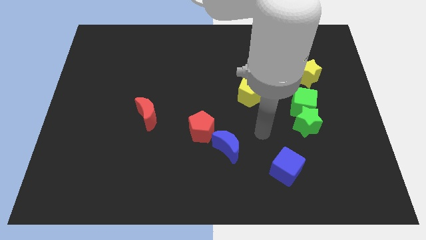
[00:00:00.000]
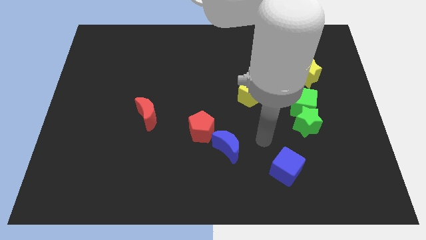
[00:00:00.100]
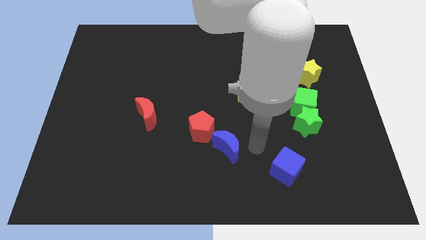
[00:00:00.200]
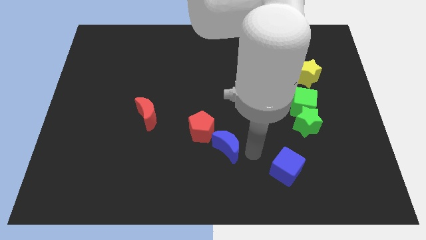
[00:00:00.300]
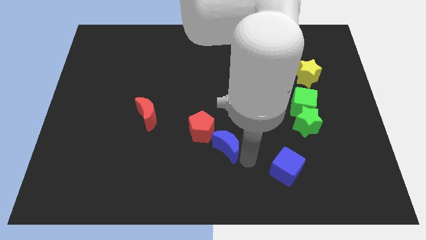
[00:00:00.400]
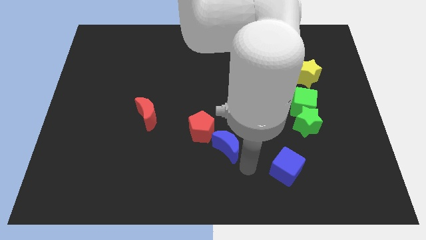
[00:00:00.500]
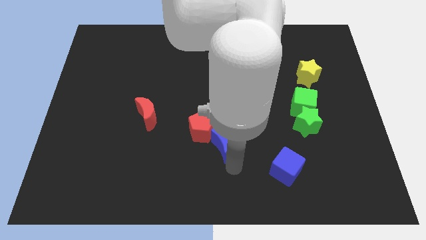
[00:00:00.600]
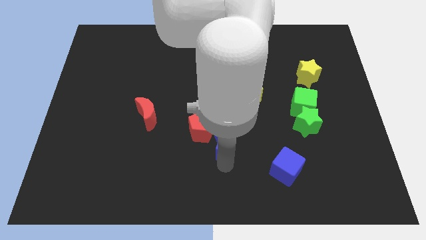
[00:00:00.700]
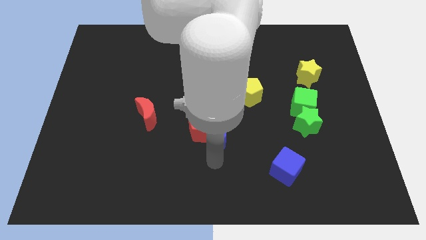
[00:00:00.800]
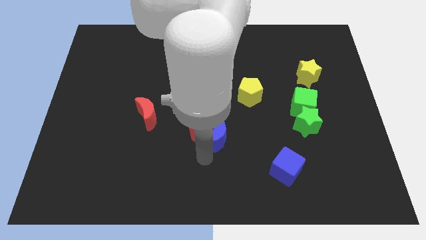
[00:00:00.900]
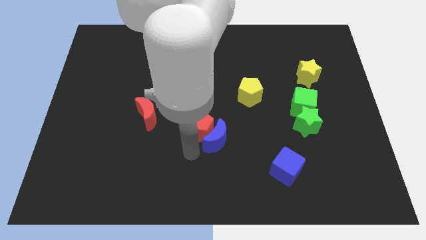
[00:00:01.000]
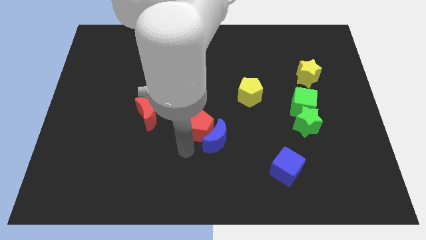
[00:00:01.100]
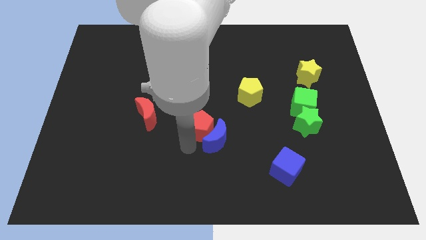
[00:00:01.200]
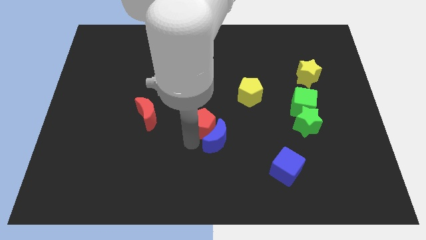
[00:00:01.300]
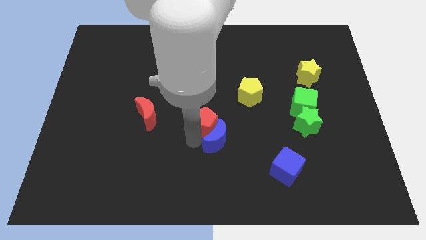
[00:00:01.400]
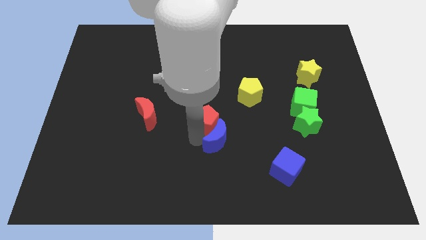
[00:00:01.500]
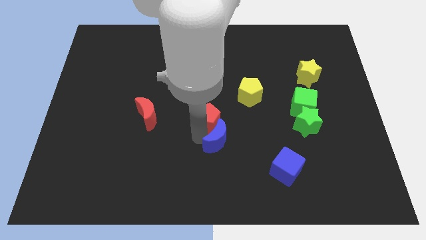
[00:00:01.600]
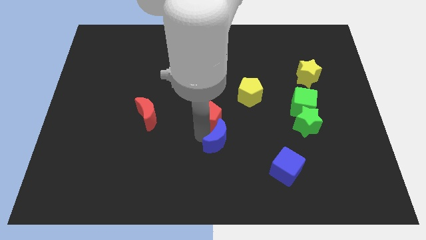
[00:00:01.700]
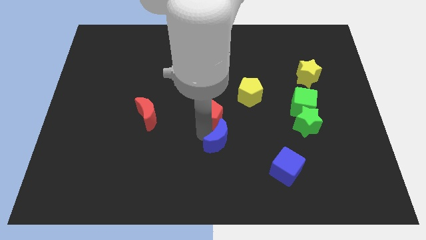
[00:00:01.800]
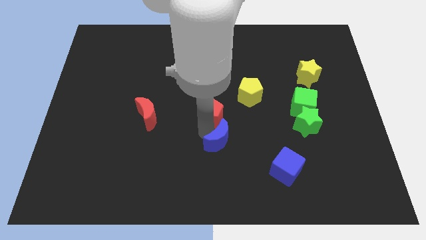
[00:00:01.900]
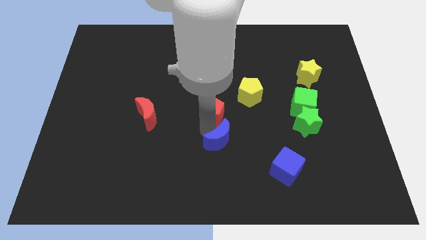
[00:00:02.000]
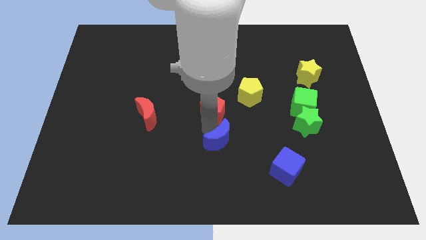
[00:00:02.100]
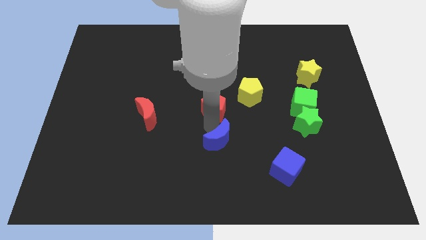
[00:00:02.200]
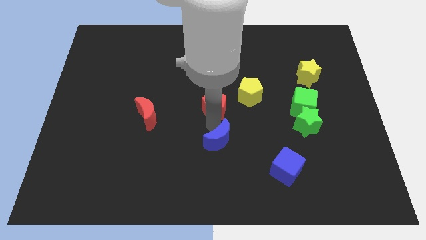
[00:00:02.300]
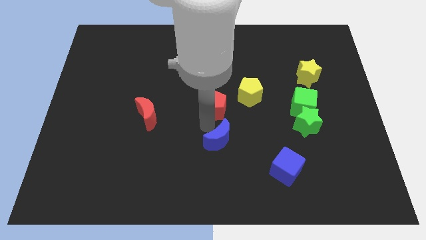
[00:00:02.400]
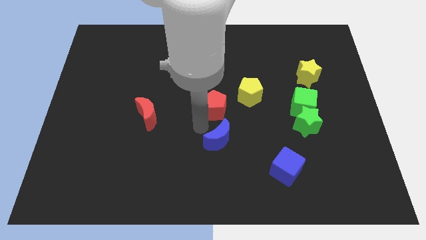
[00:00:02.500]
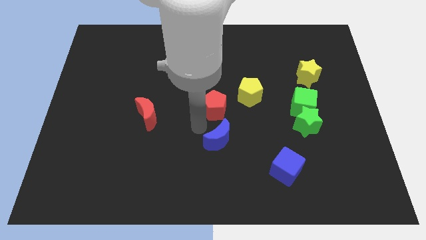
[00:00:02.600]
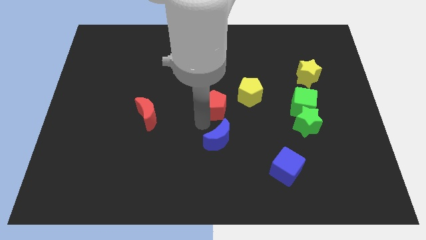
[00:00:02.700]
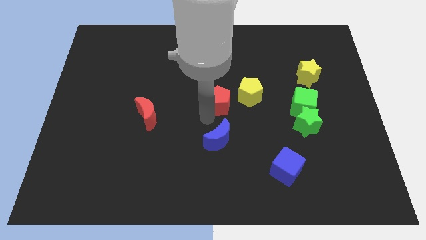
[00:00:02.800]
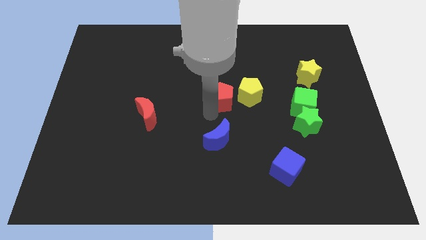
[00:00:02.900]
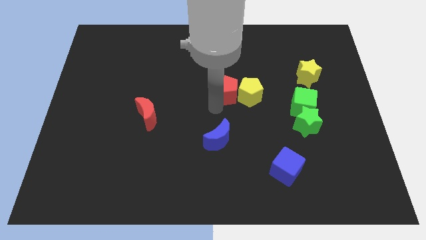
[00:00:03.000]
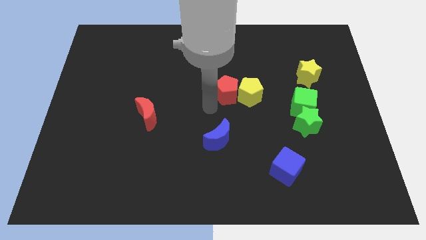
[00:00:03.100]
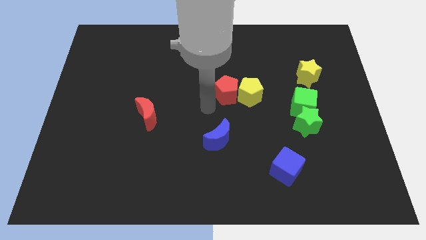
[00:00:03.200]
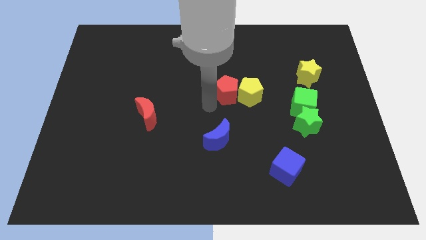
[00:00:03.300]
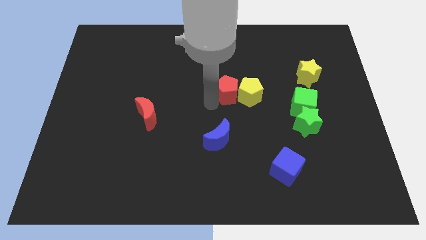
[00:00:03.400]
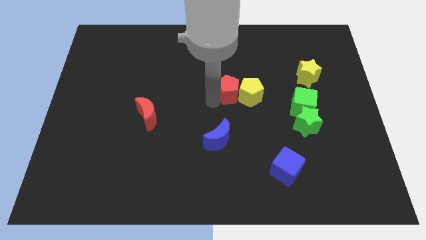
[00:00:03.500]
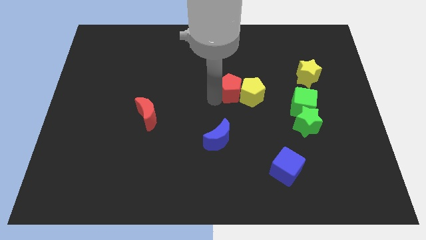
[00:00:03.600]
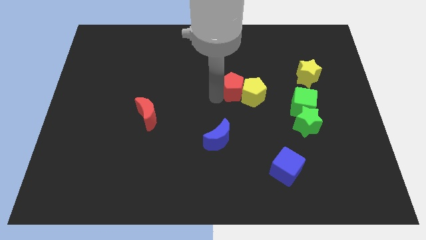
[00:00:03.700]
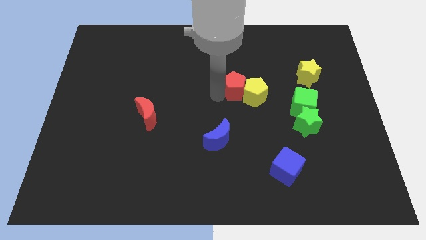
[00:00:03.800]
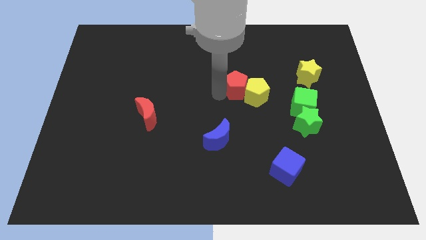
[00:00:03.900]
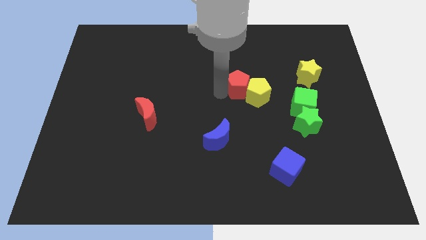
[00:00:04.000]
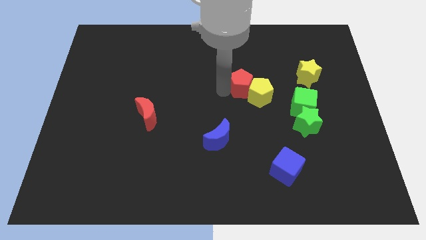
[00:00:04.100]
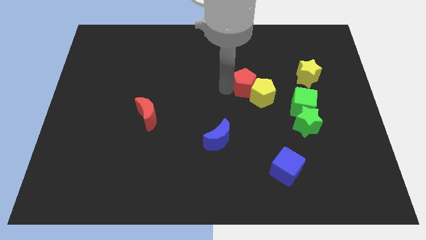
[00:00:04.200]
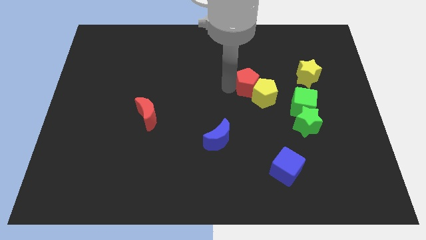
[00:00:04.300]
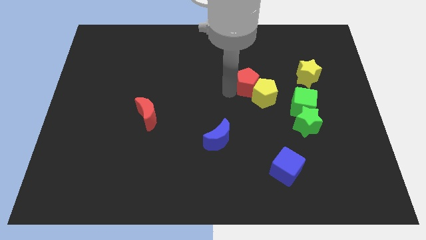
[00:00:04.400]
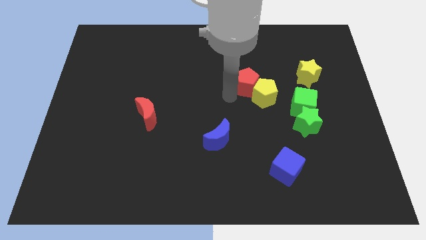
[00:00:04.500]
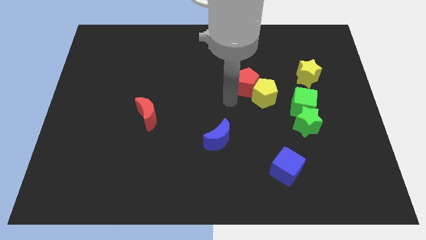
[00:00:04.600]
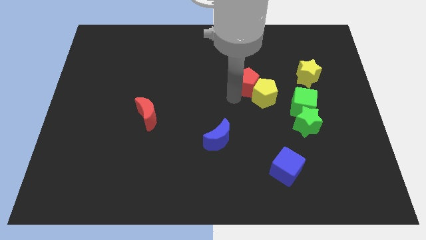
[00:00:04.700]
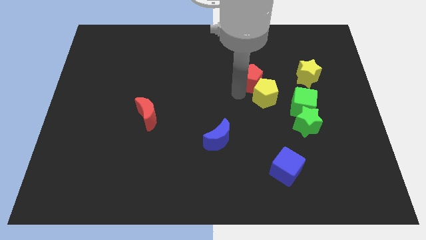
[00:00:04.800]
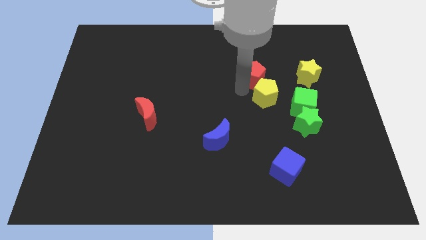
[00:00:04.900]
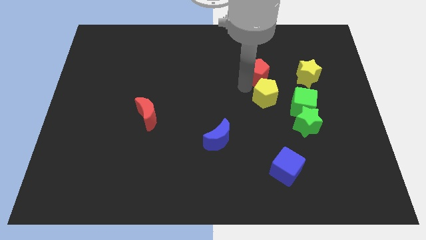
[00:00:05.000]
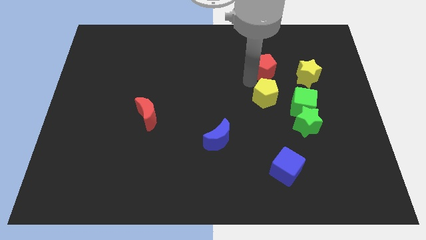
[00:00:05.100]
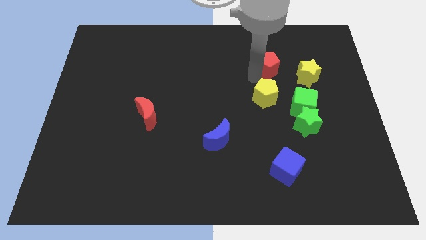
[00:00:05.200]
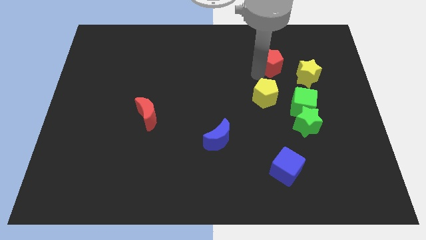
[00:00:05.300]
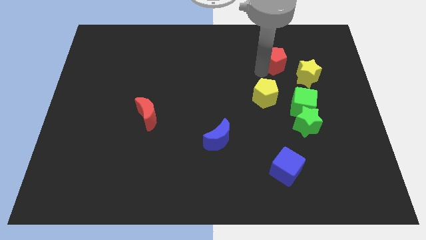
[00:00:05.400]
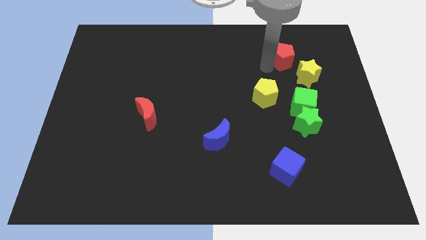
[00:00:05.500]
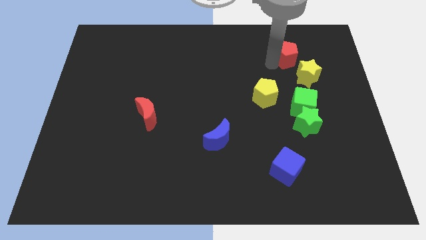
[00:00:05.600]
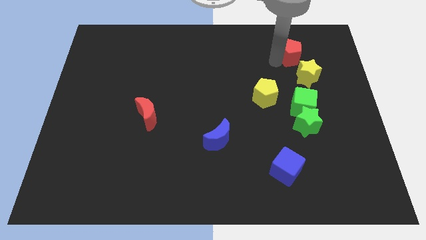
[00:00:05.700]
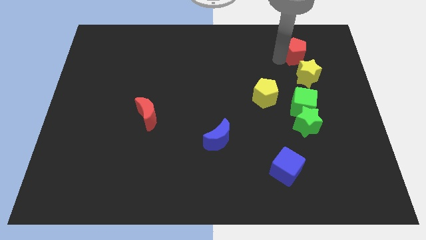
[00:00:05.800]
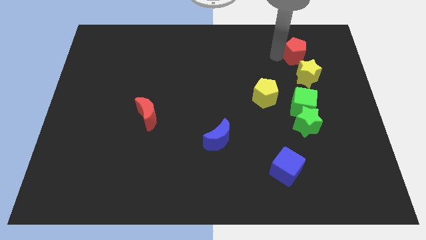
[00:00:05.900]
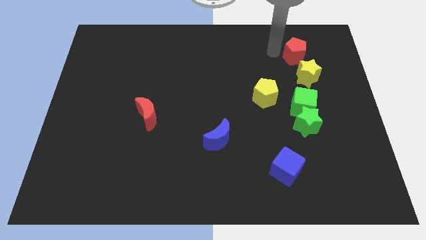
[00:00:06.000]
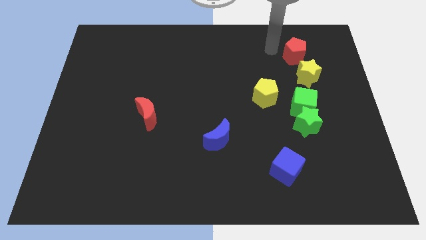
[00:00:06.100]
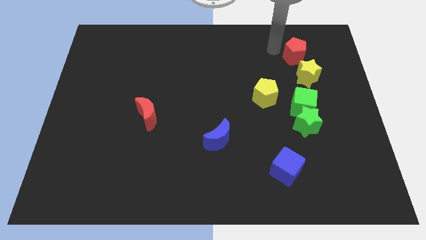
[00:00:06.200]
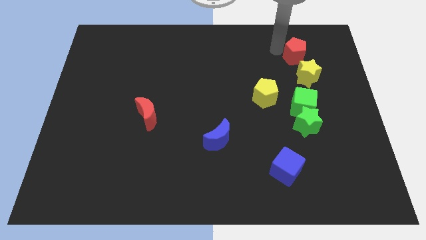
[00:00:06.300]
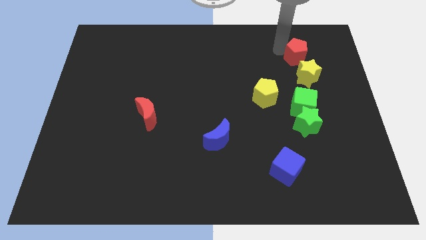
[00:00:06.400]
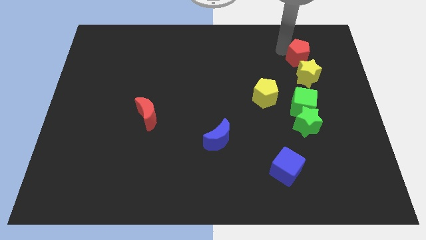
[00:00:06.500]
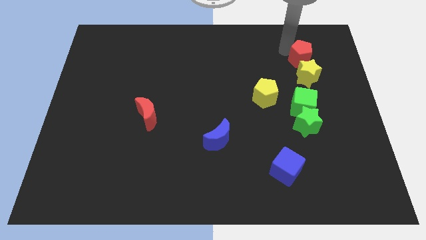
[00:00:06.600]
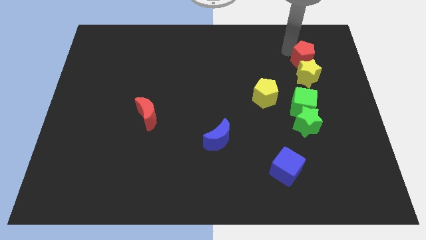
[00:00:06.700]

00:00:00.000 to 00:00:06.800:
put the red pentagon diagonally up and to the right of the yellow star

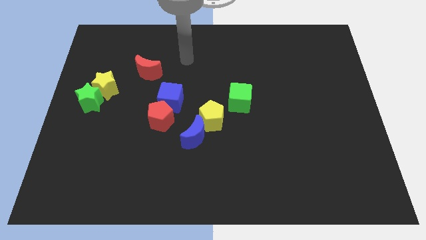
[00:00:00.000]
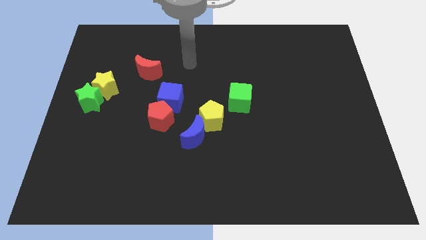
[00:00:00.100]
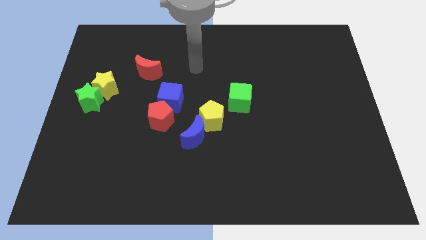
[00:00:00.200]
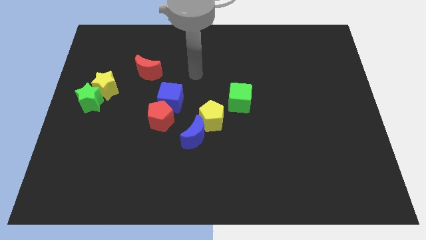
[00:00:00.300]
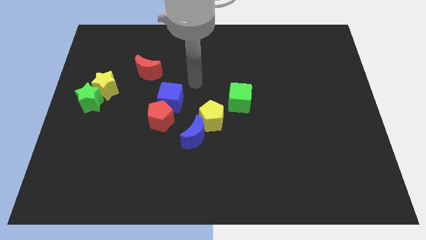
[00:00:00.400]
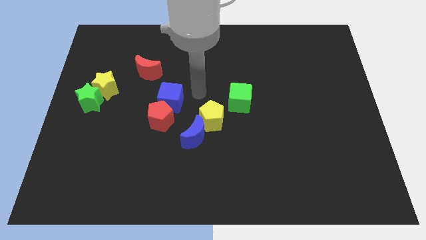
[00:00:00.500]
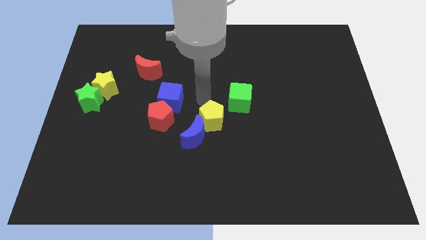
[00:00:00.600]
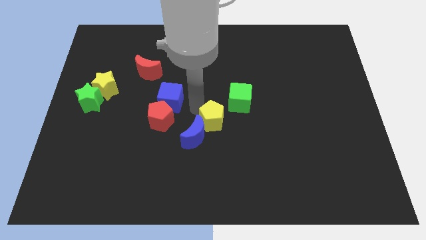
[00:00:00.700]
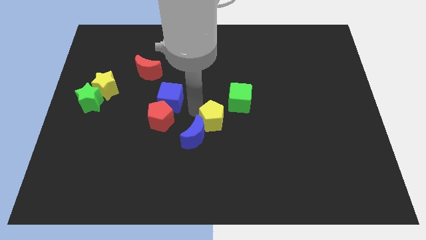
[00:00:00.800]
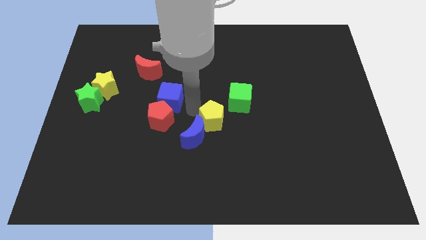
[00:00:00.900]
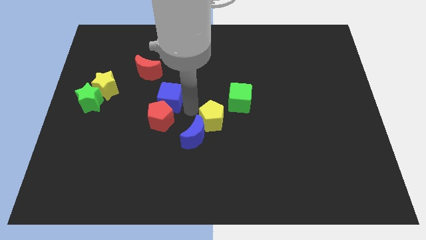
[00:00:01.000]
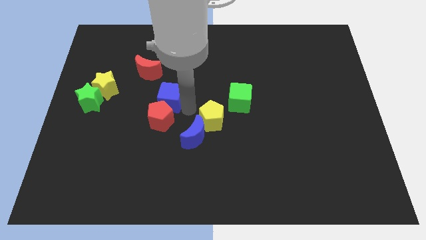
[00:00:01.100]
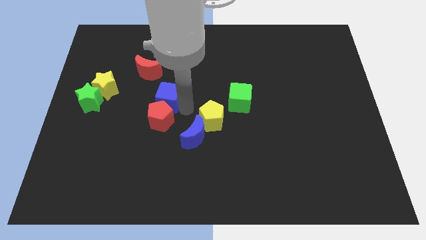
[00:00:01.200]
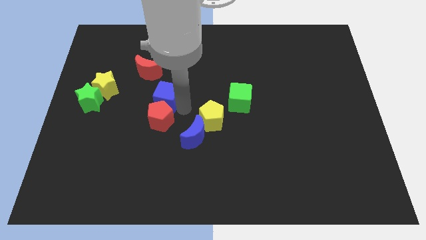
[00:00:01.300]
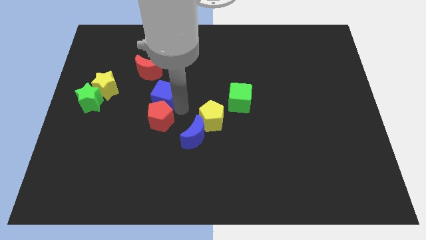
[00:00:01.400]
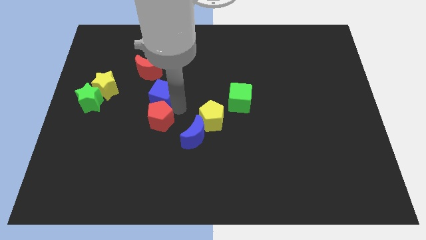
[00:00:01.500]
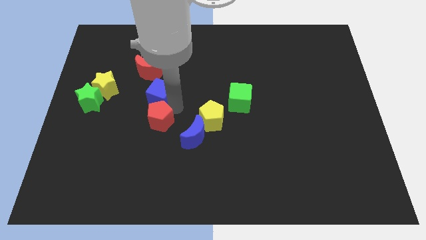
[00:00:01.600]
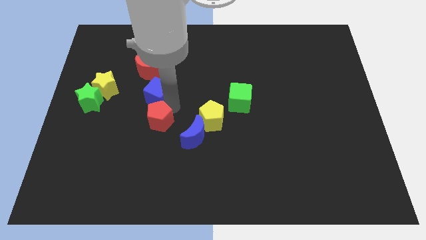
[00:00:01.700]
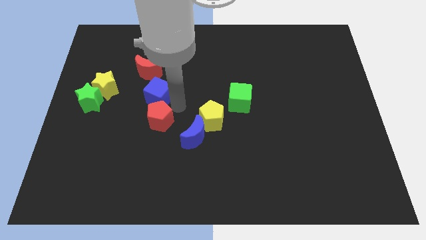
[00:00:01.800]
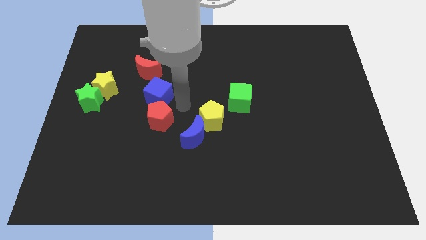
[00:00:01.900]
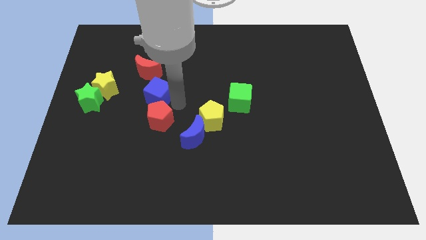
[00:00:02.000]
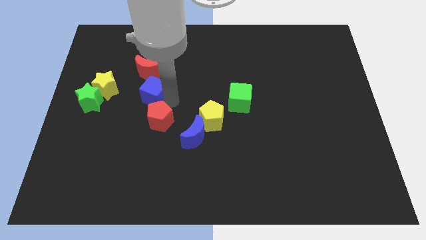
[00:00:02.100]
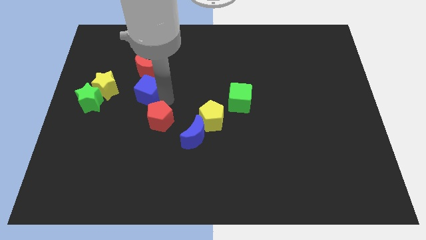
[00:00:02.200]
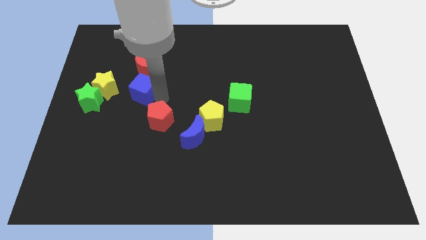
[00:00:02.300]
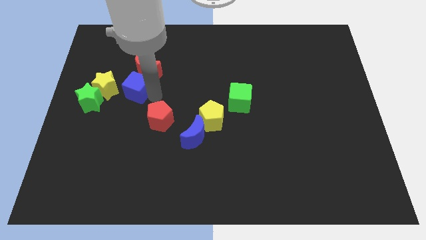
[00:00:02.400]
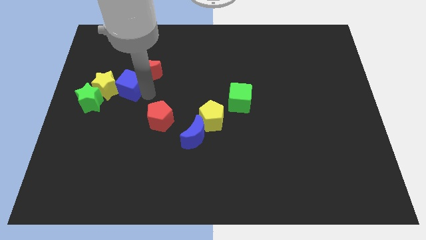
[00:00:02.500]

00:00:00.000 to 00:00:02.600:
move the blue cube to the top right of the green star
